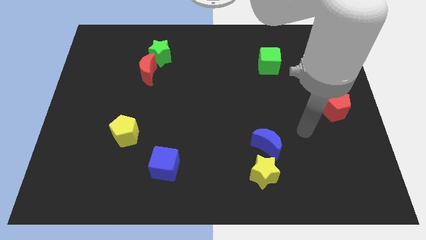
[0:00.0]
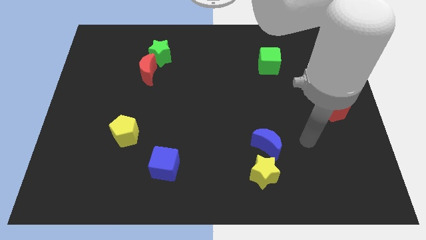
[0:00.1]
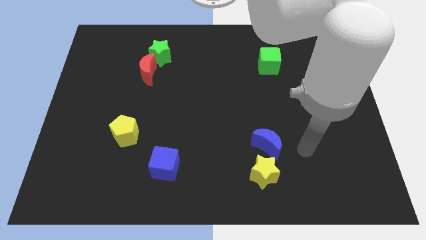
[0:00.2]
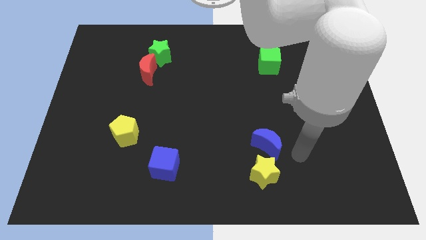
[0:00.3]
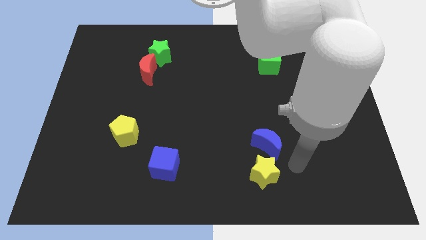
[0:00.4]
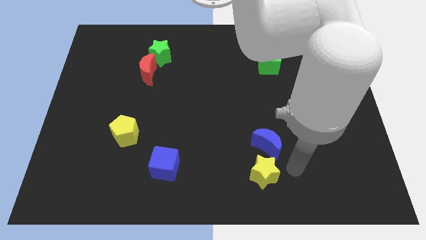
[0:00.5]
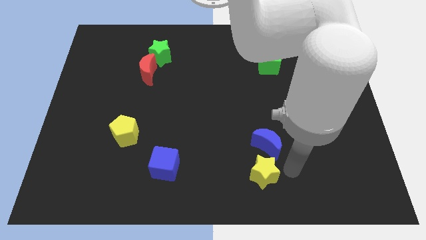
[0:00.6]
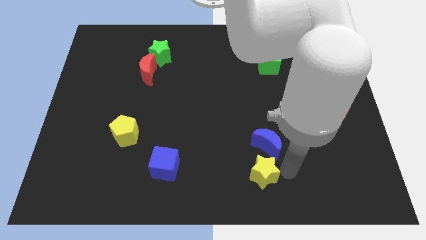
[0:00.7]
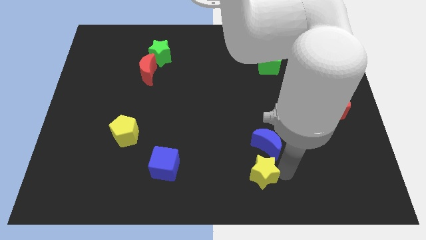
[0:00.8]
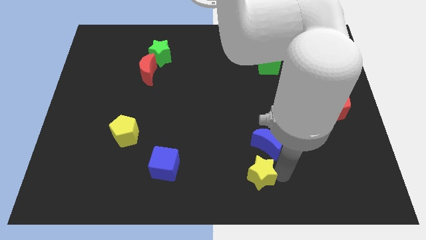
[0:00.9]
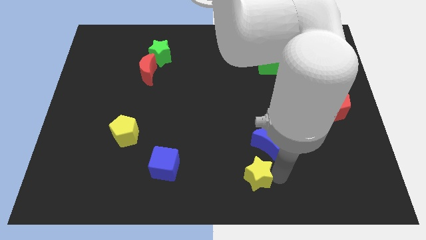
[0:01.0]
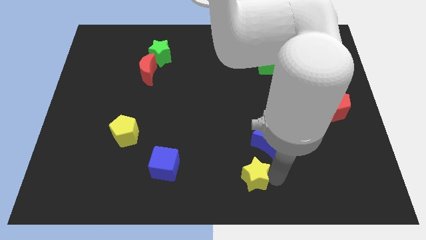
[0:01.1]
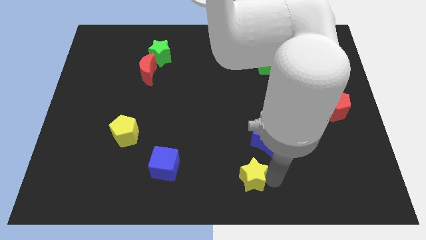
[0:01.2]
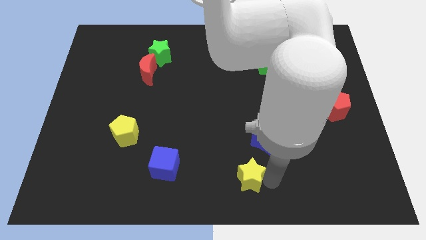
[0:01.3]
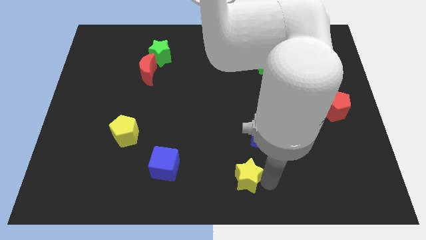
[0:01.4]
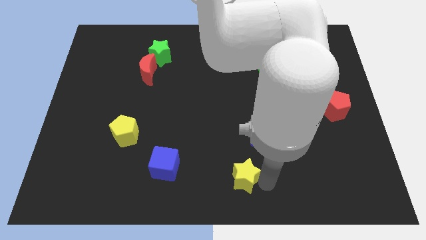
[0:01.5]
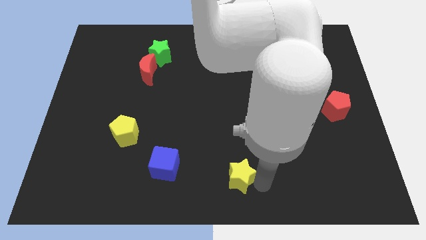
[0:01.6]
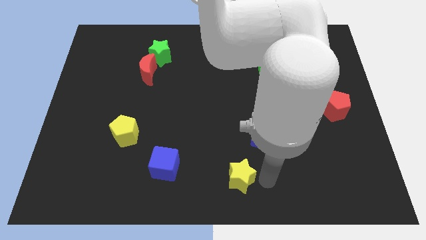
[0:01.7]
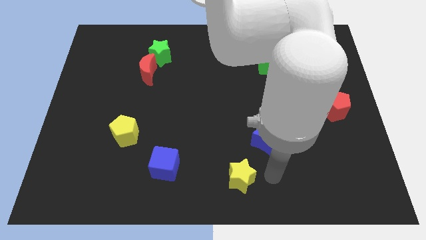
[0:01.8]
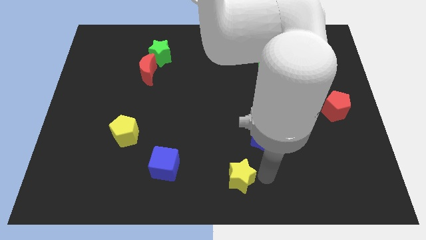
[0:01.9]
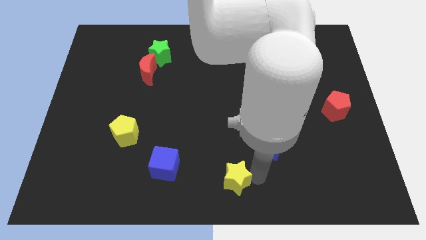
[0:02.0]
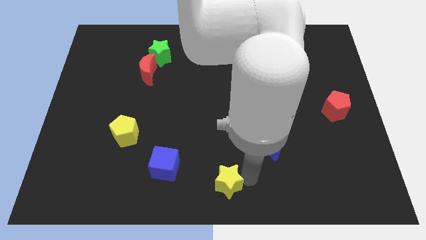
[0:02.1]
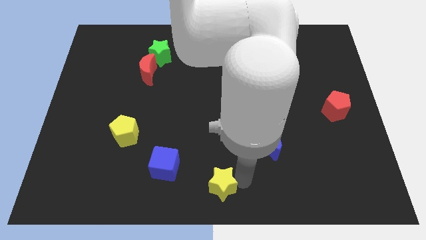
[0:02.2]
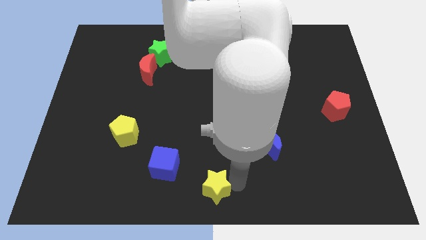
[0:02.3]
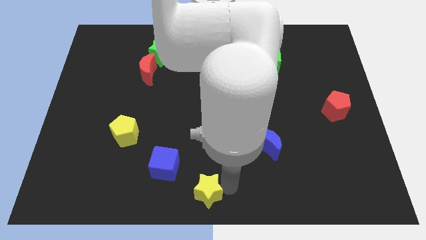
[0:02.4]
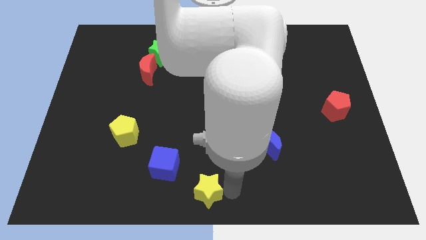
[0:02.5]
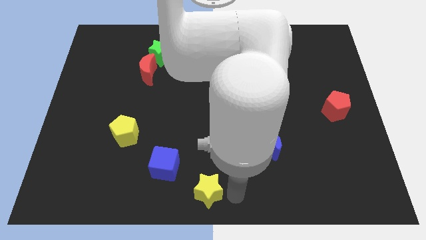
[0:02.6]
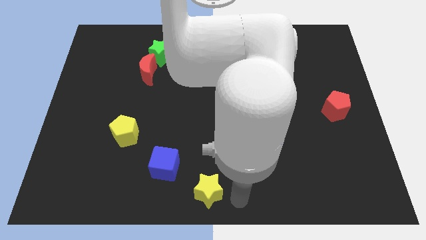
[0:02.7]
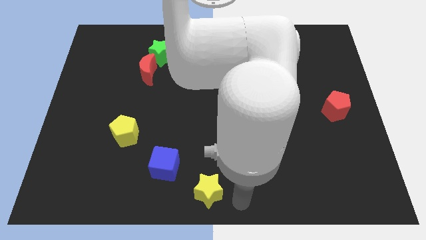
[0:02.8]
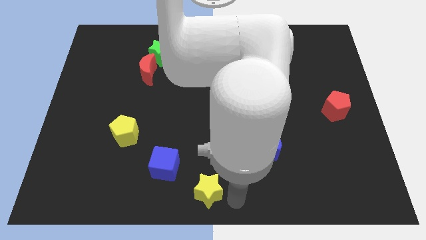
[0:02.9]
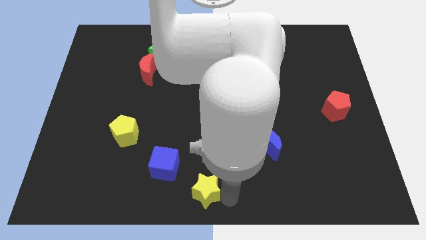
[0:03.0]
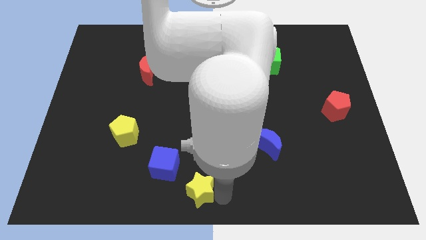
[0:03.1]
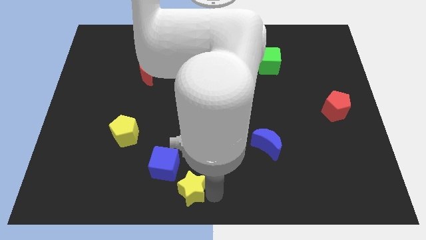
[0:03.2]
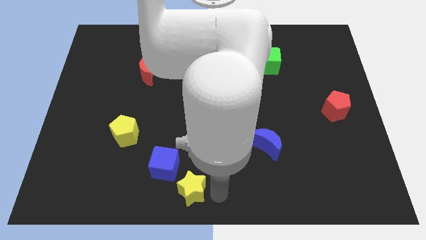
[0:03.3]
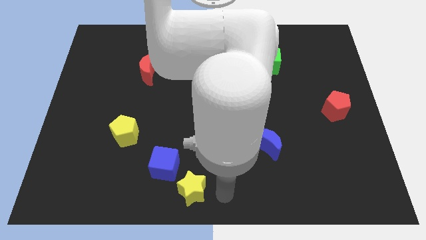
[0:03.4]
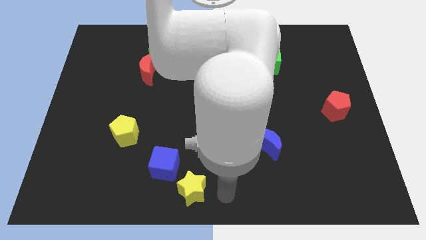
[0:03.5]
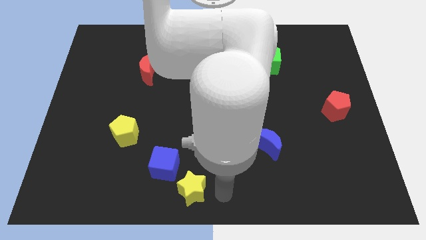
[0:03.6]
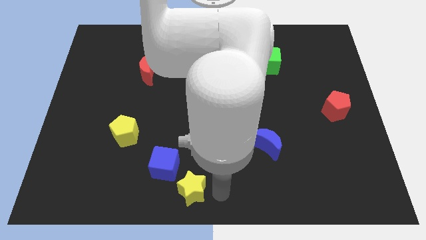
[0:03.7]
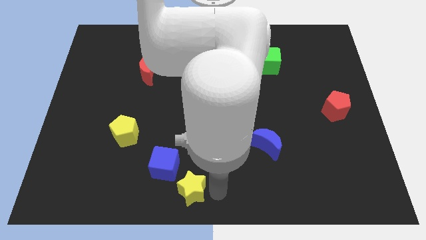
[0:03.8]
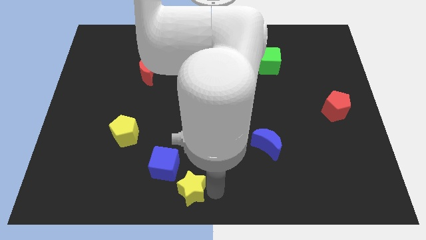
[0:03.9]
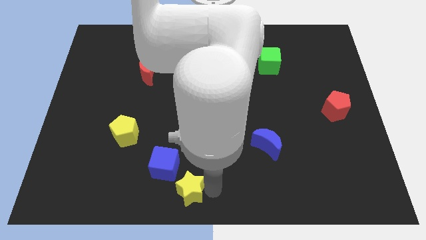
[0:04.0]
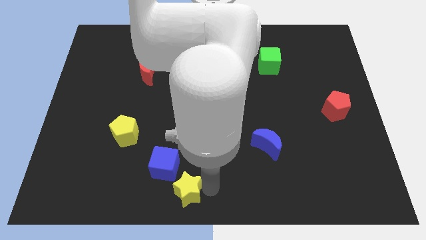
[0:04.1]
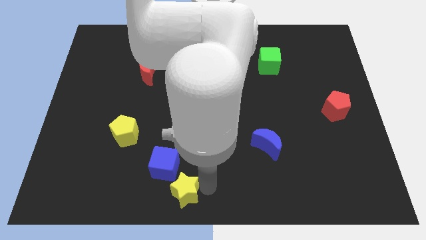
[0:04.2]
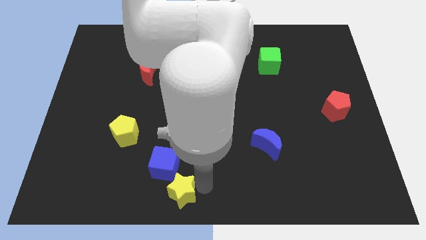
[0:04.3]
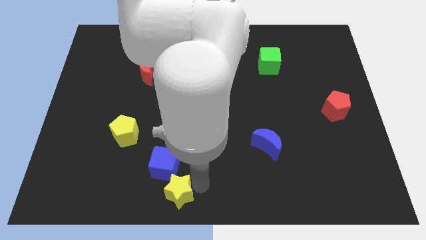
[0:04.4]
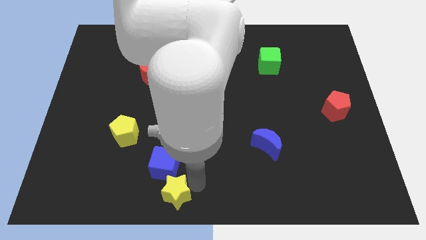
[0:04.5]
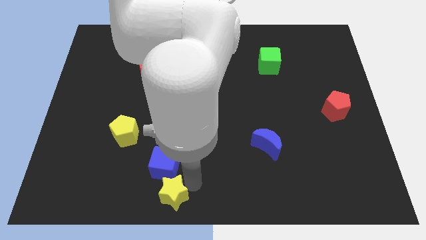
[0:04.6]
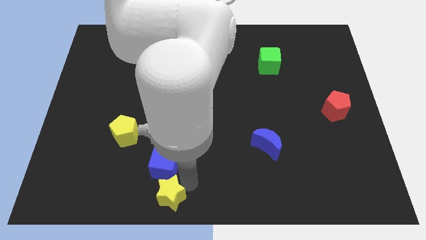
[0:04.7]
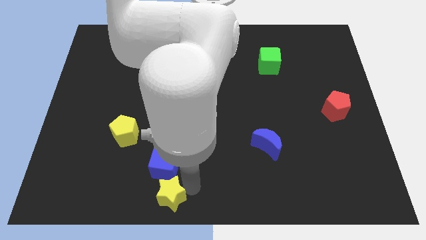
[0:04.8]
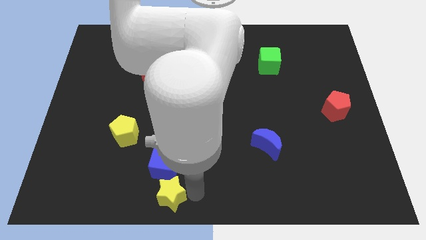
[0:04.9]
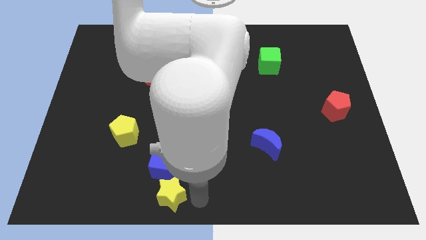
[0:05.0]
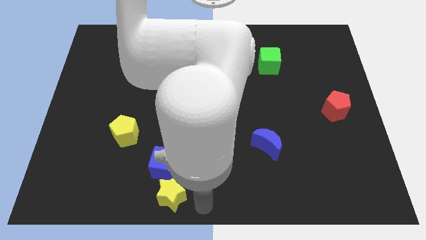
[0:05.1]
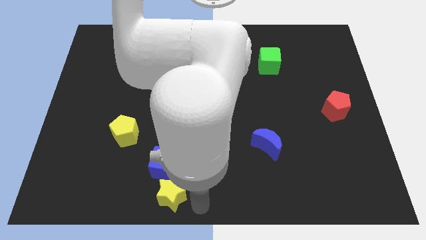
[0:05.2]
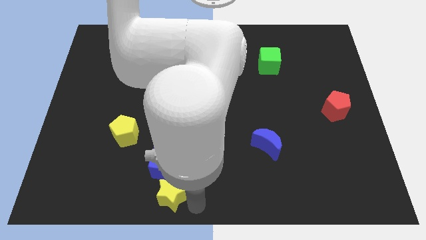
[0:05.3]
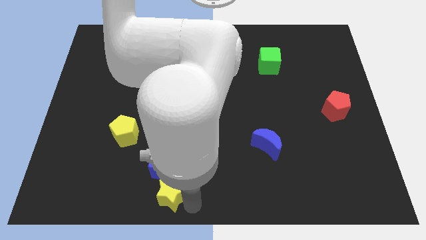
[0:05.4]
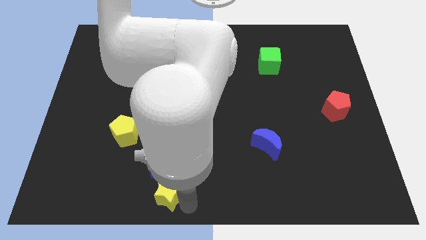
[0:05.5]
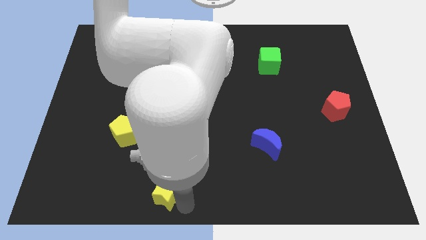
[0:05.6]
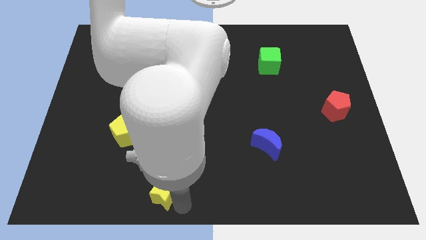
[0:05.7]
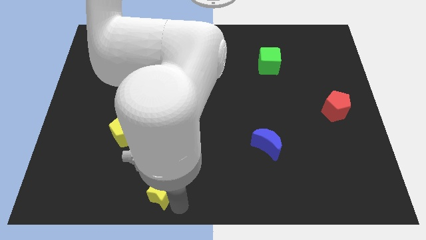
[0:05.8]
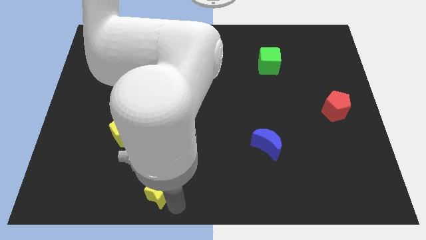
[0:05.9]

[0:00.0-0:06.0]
push the yellow star left

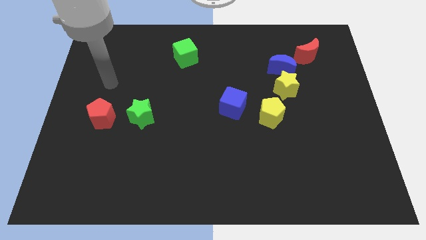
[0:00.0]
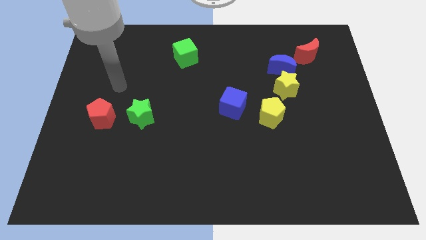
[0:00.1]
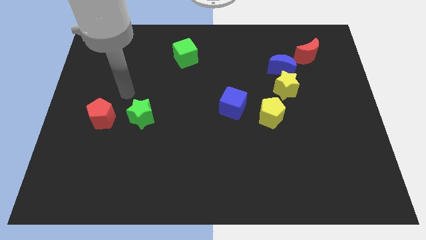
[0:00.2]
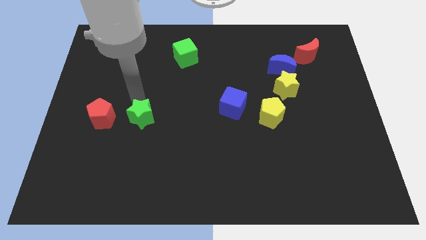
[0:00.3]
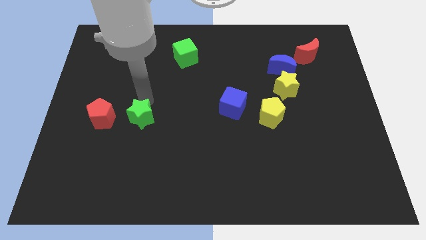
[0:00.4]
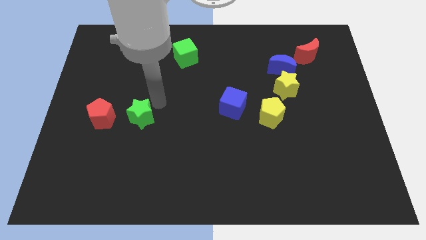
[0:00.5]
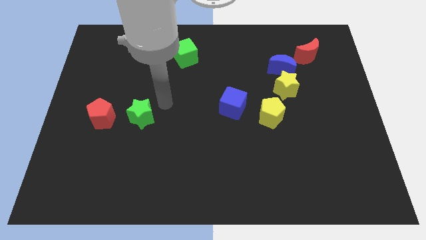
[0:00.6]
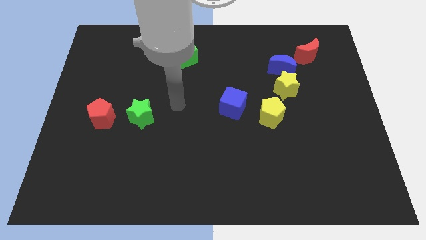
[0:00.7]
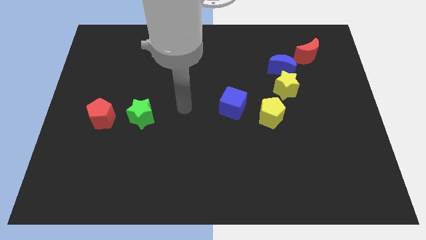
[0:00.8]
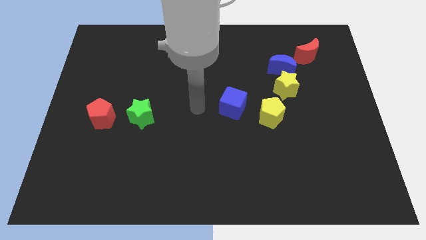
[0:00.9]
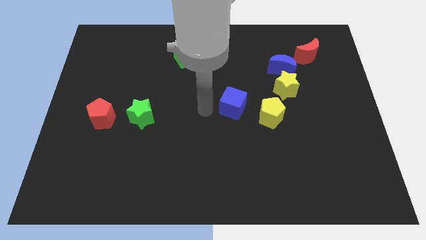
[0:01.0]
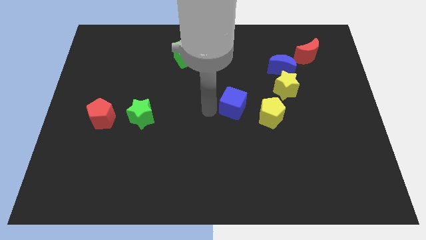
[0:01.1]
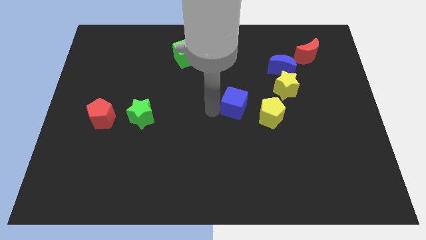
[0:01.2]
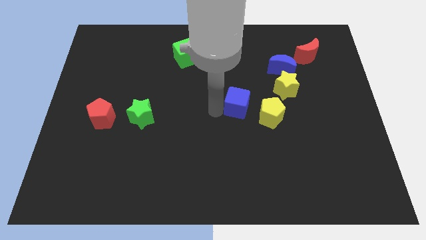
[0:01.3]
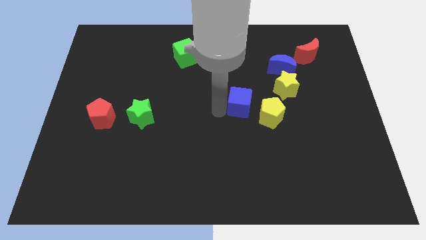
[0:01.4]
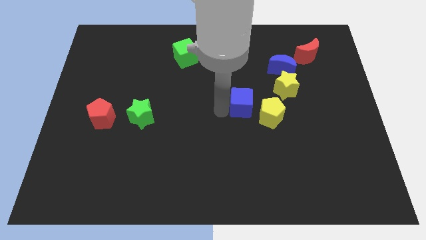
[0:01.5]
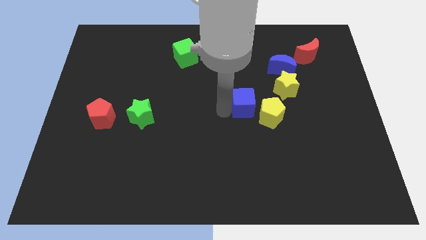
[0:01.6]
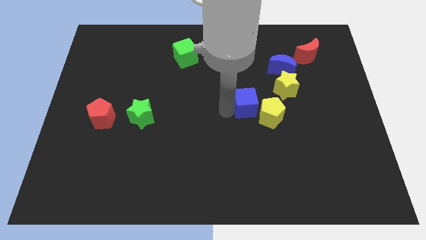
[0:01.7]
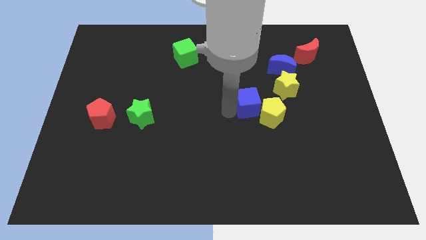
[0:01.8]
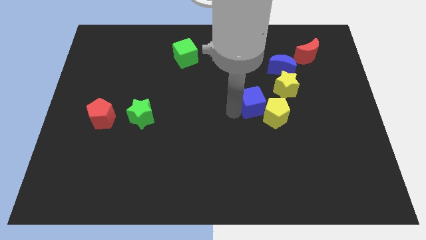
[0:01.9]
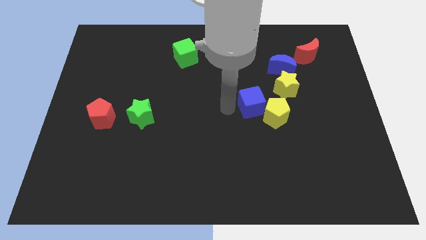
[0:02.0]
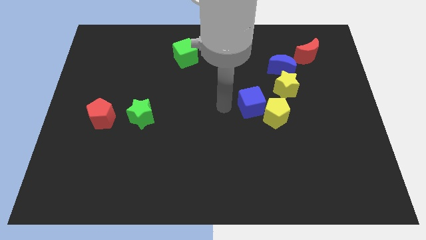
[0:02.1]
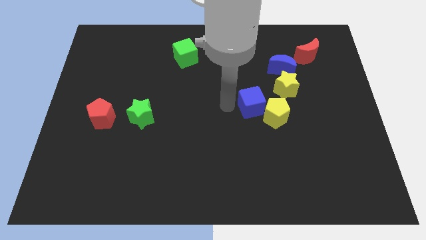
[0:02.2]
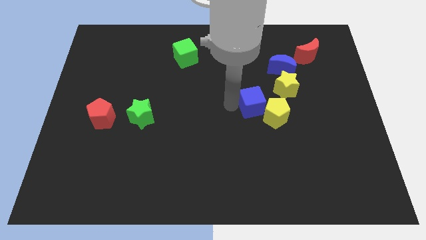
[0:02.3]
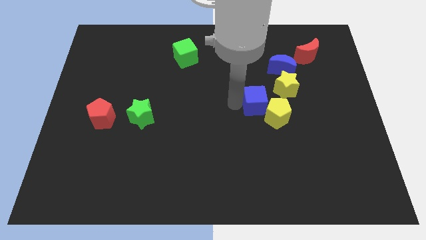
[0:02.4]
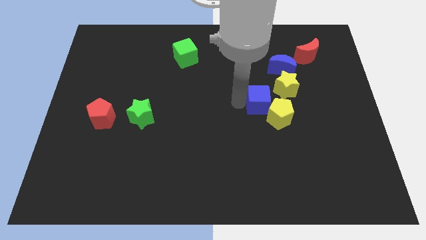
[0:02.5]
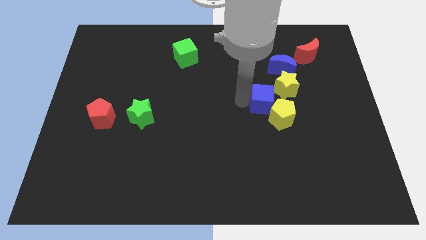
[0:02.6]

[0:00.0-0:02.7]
slightly slide the blue cube to the right
